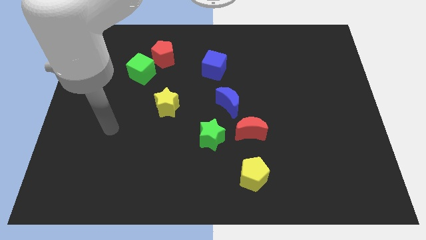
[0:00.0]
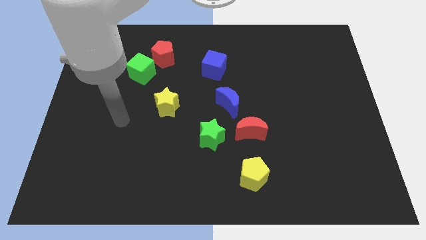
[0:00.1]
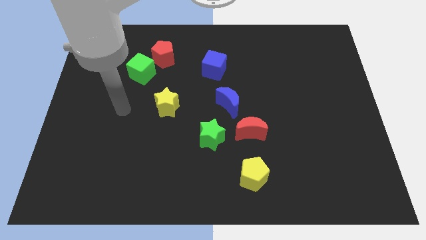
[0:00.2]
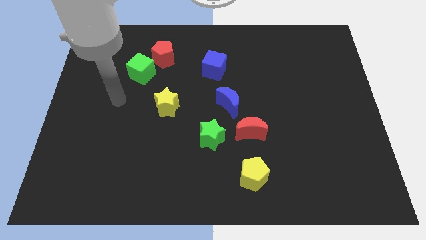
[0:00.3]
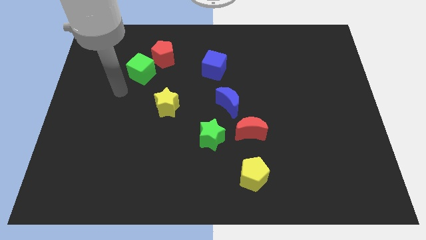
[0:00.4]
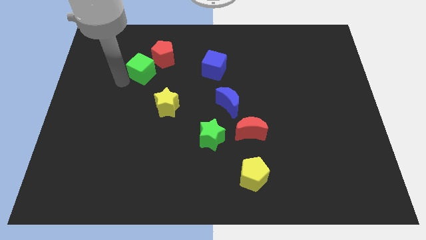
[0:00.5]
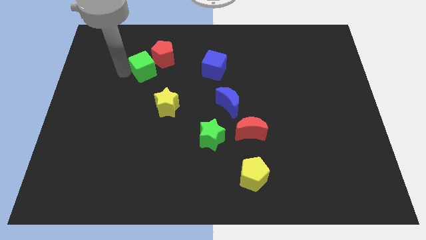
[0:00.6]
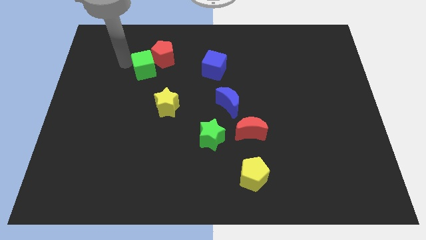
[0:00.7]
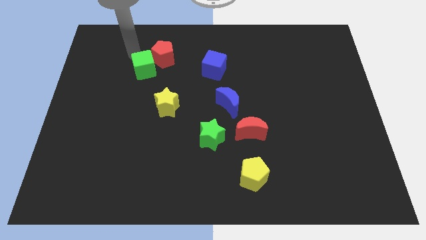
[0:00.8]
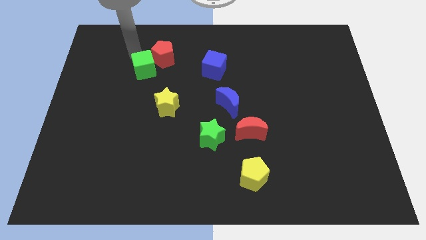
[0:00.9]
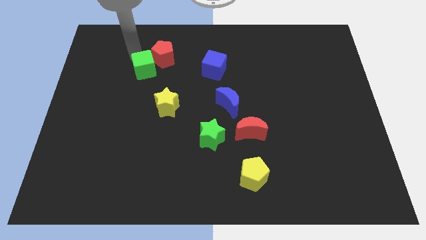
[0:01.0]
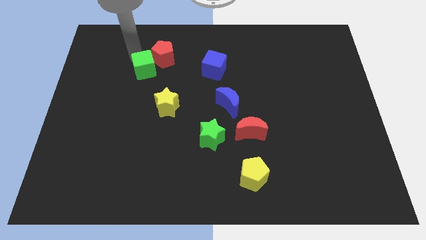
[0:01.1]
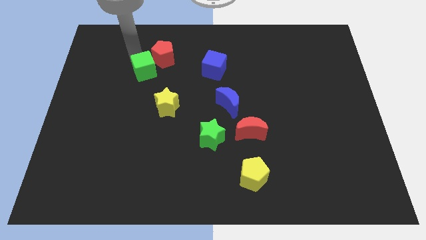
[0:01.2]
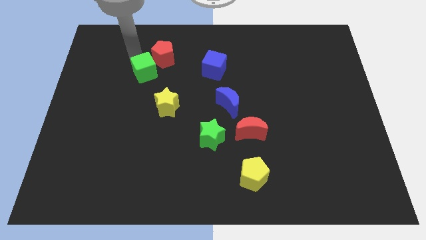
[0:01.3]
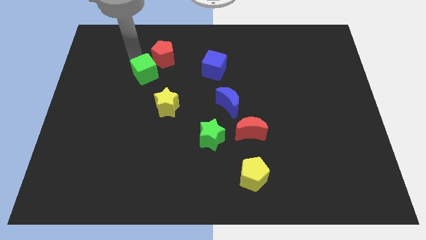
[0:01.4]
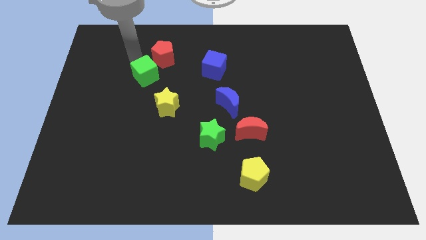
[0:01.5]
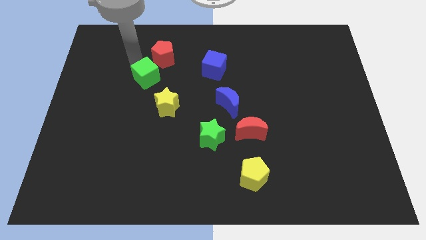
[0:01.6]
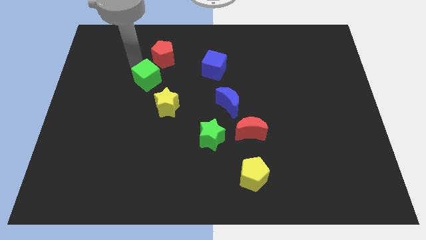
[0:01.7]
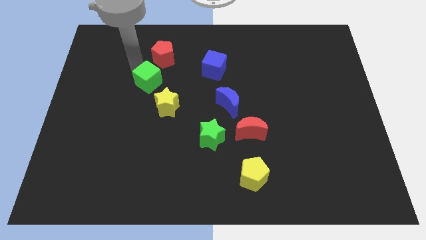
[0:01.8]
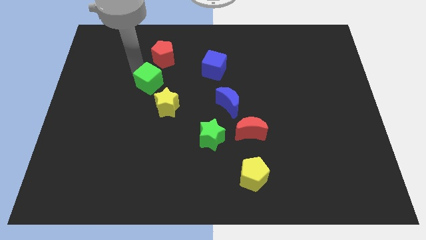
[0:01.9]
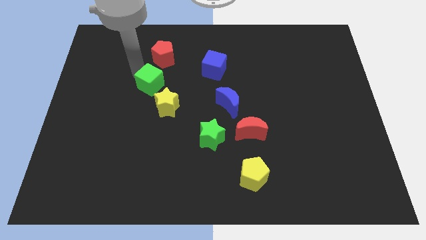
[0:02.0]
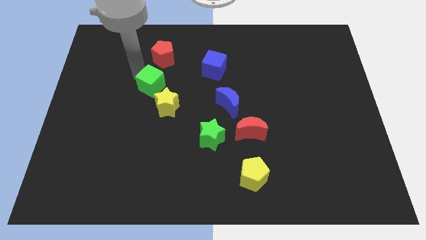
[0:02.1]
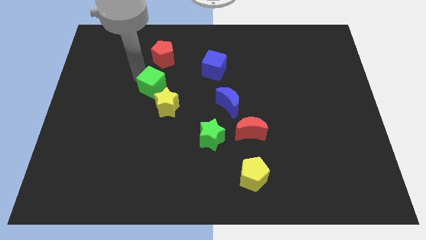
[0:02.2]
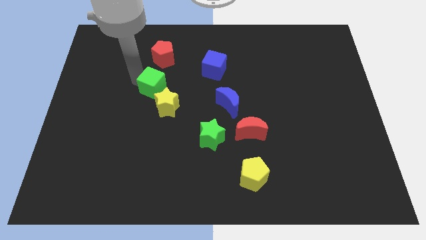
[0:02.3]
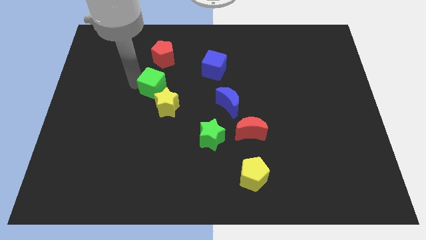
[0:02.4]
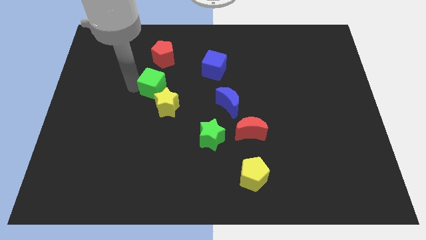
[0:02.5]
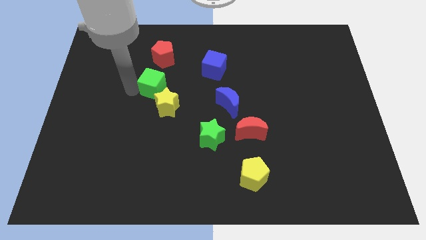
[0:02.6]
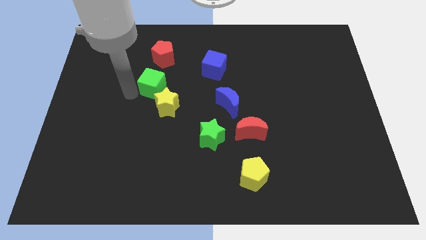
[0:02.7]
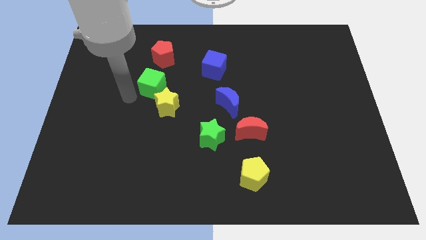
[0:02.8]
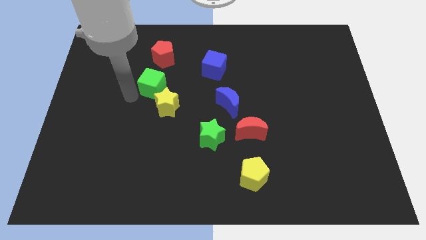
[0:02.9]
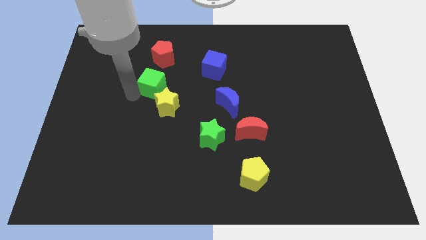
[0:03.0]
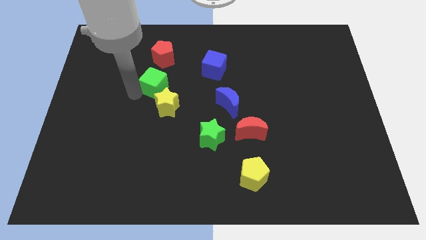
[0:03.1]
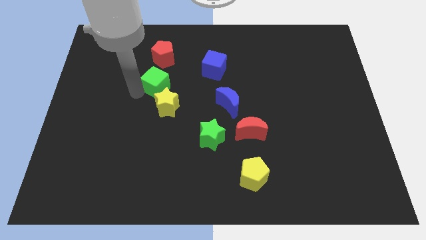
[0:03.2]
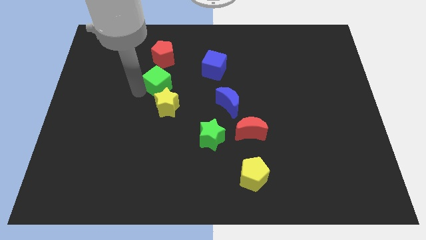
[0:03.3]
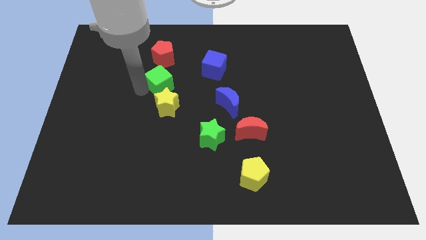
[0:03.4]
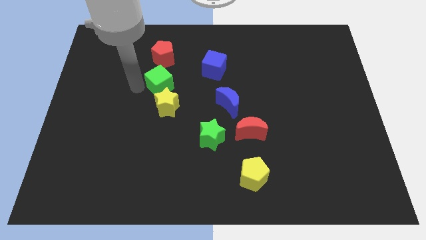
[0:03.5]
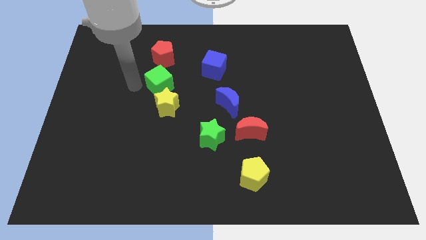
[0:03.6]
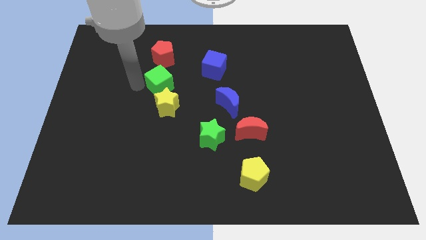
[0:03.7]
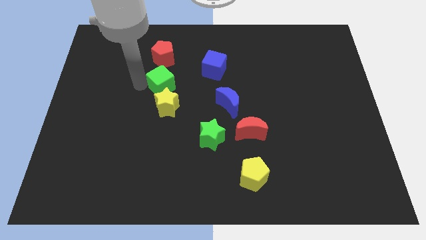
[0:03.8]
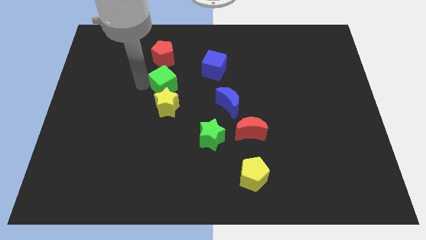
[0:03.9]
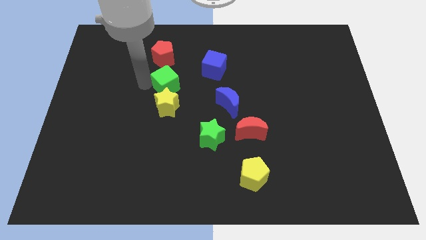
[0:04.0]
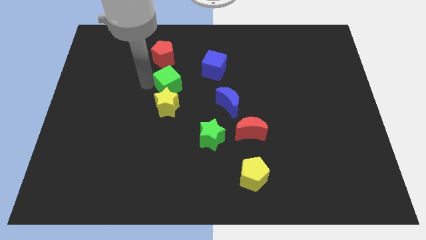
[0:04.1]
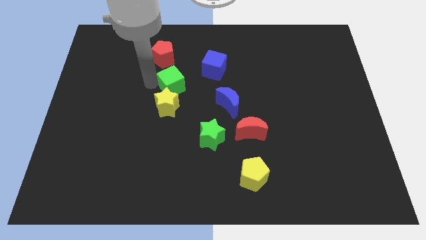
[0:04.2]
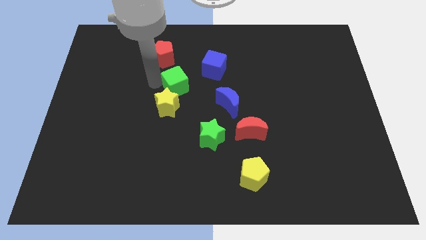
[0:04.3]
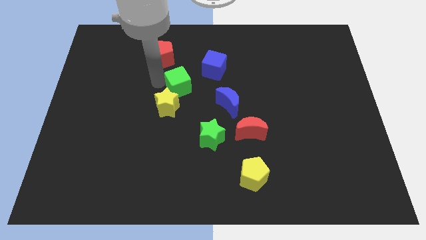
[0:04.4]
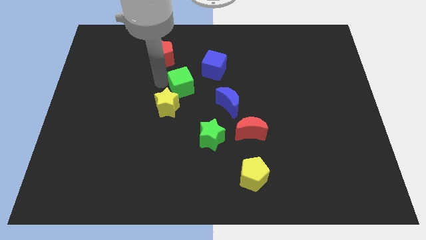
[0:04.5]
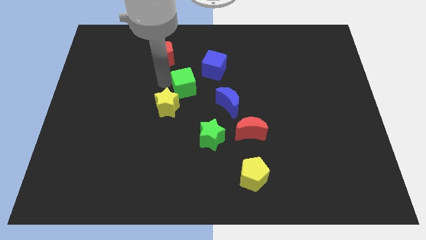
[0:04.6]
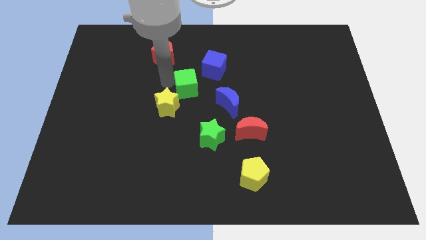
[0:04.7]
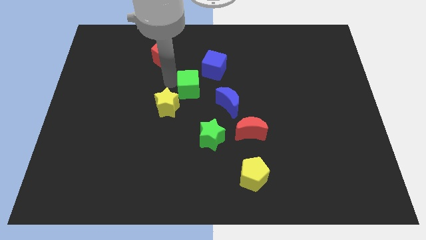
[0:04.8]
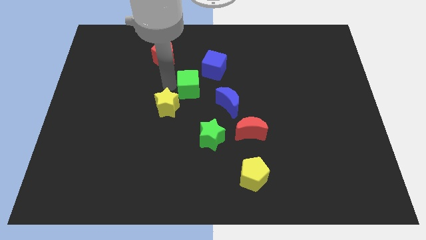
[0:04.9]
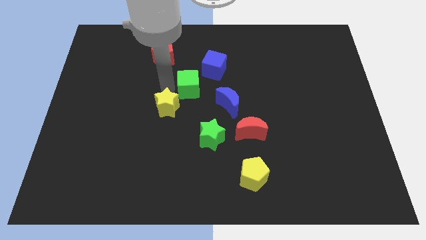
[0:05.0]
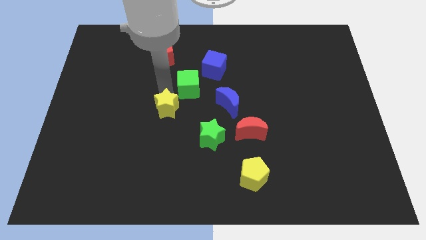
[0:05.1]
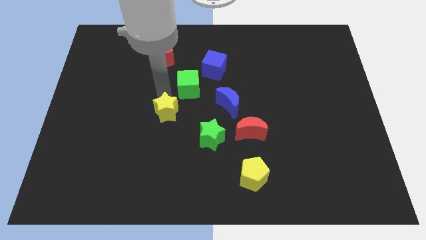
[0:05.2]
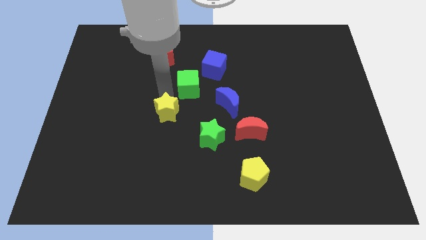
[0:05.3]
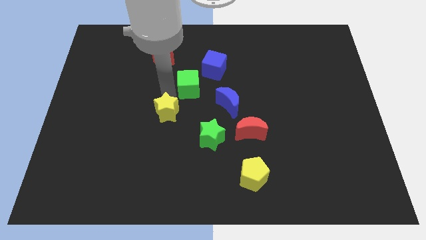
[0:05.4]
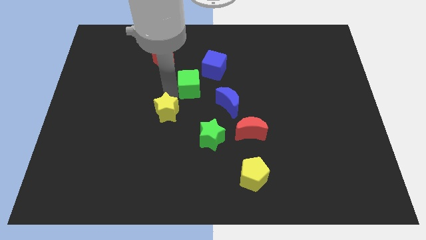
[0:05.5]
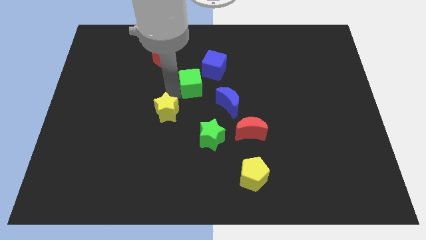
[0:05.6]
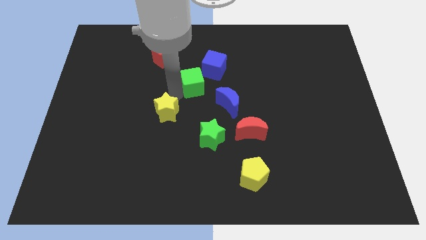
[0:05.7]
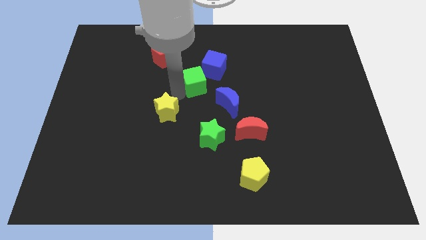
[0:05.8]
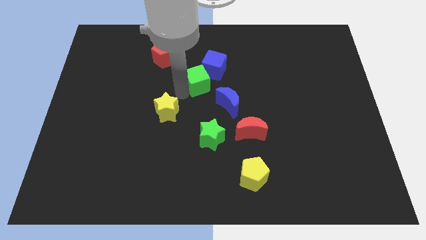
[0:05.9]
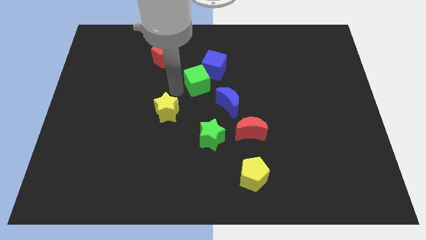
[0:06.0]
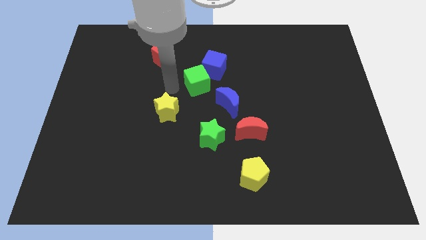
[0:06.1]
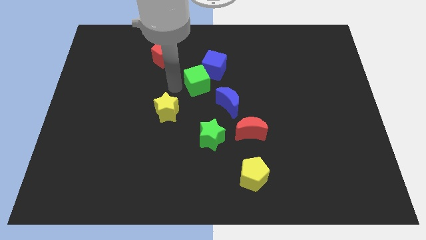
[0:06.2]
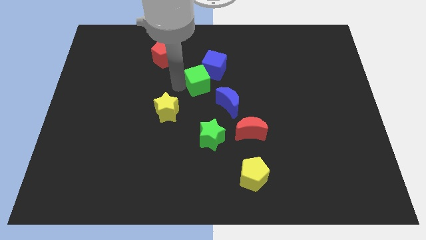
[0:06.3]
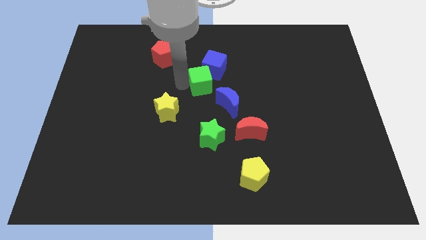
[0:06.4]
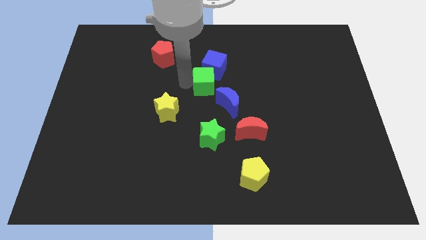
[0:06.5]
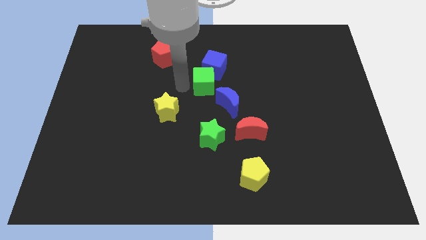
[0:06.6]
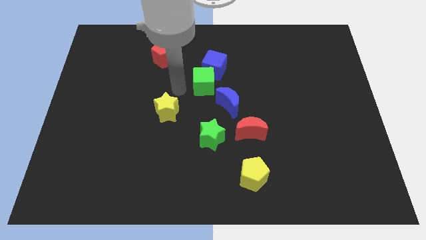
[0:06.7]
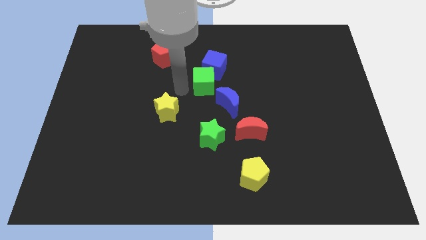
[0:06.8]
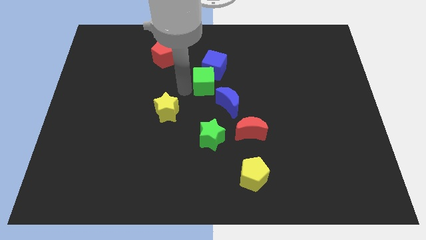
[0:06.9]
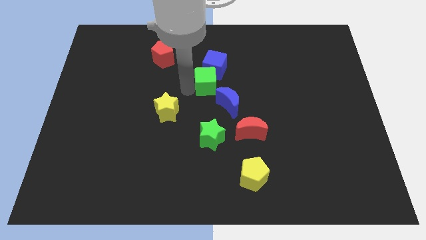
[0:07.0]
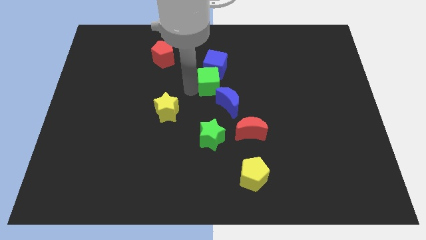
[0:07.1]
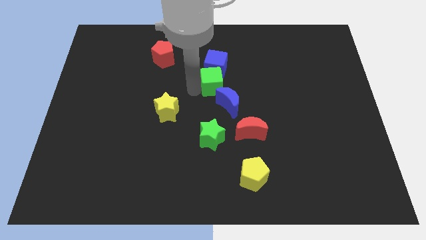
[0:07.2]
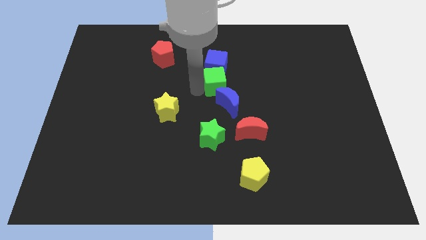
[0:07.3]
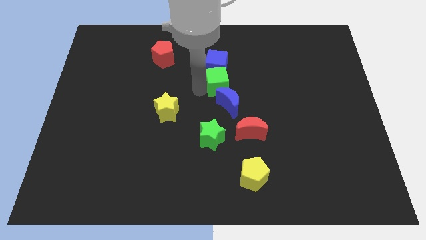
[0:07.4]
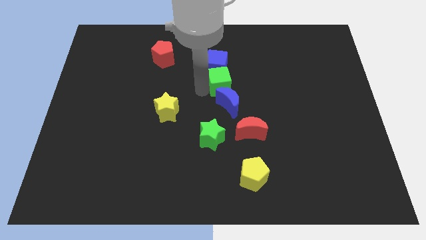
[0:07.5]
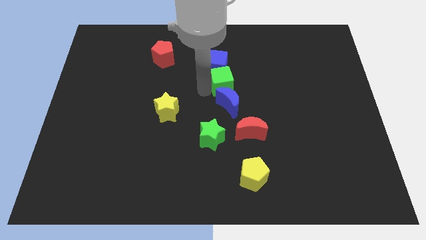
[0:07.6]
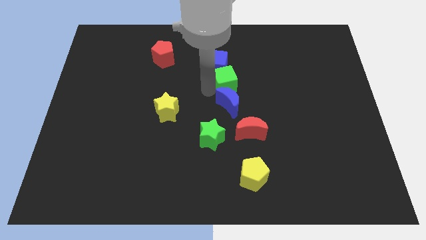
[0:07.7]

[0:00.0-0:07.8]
push the green cube to the right

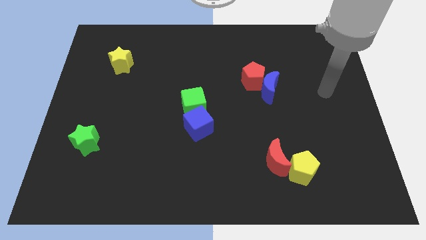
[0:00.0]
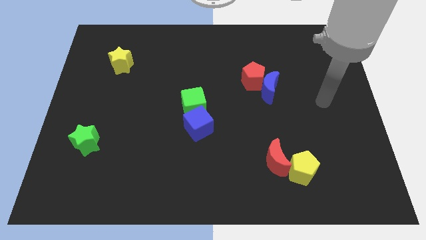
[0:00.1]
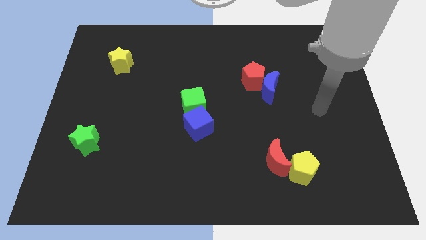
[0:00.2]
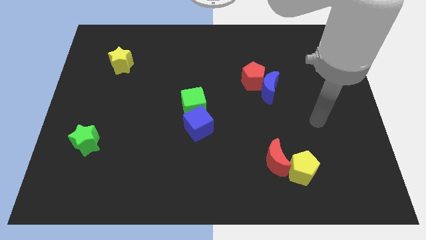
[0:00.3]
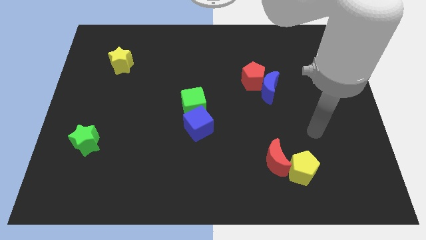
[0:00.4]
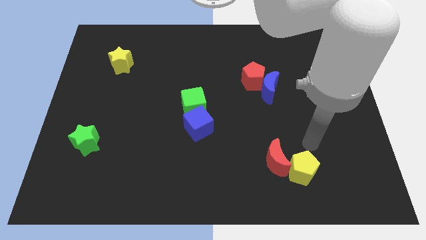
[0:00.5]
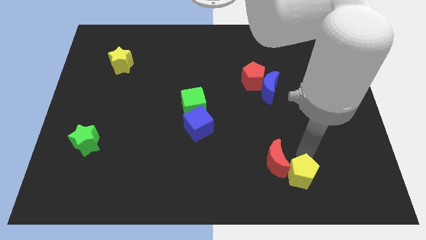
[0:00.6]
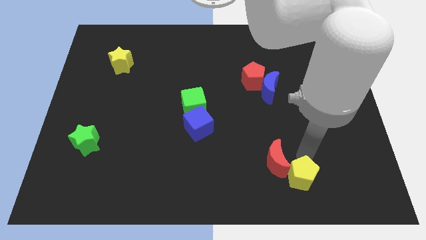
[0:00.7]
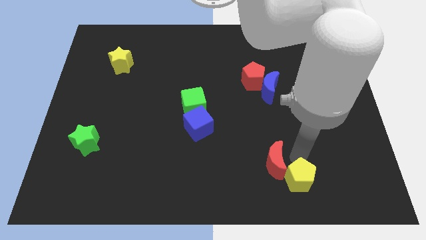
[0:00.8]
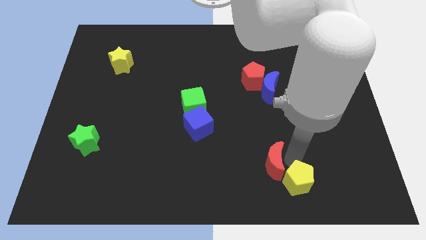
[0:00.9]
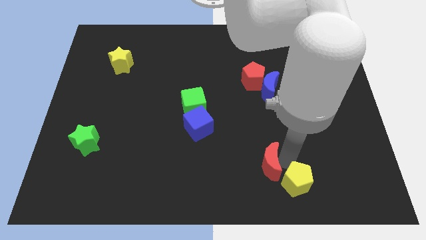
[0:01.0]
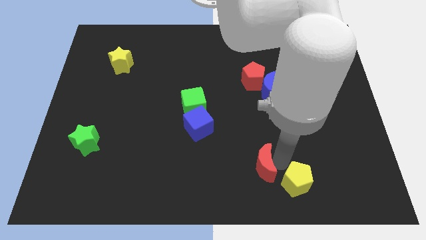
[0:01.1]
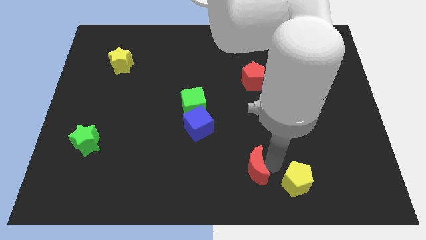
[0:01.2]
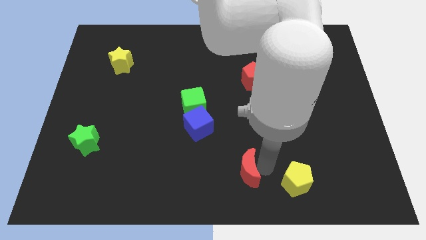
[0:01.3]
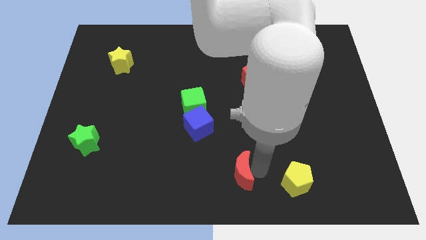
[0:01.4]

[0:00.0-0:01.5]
slightly move the red moon left
